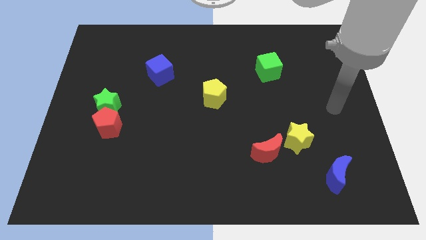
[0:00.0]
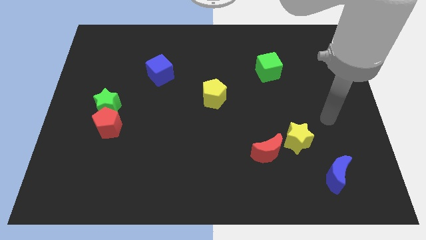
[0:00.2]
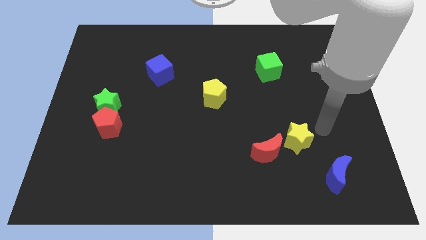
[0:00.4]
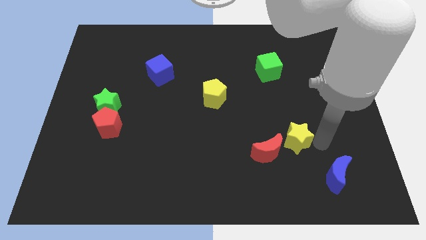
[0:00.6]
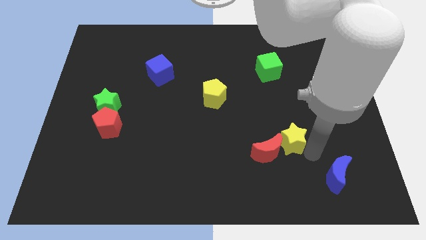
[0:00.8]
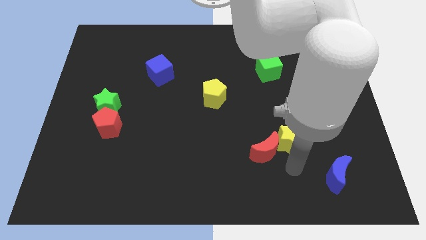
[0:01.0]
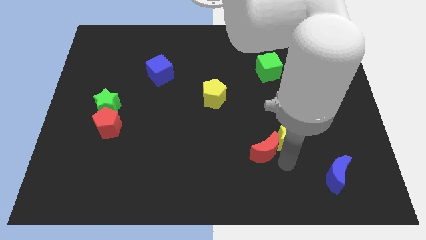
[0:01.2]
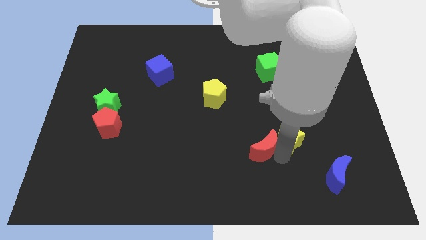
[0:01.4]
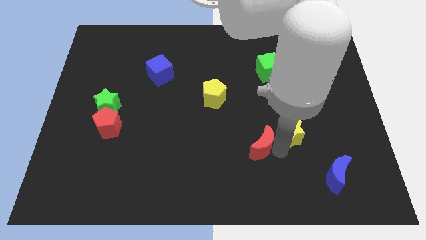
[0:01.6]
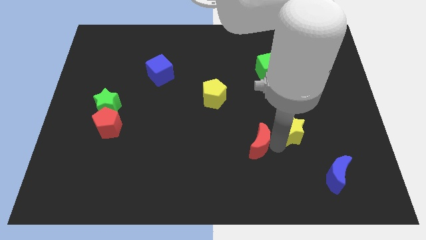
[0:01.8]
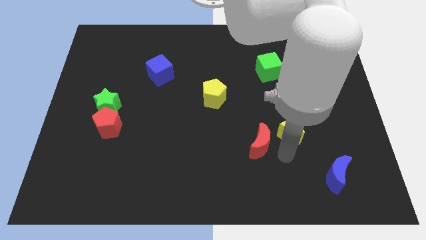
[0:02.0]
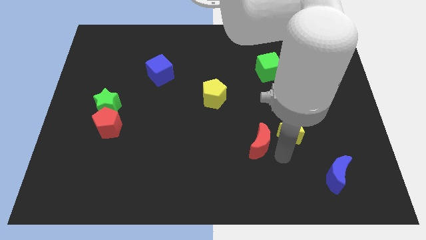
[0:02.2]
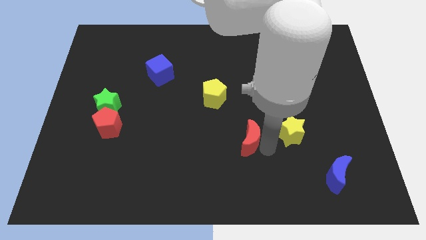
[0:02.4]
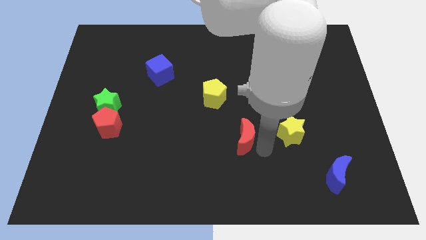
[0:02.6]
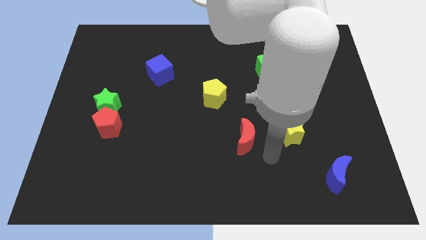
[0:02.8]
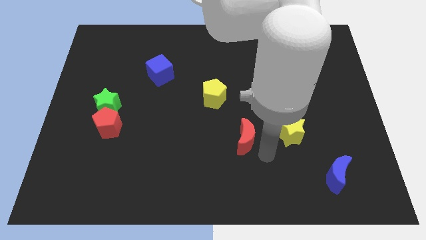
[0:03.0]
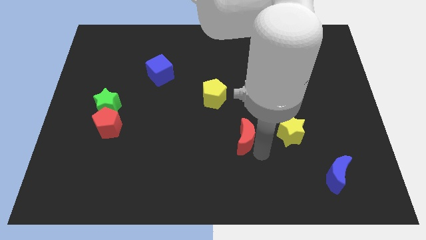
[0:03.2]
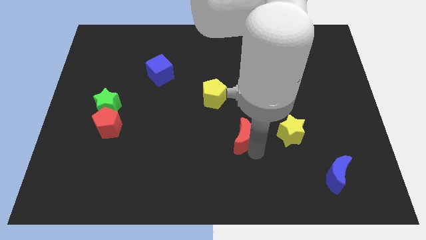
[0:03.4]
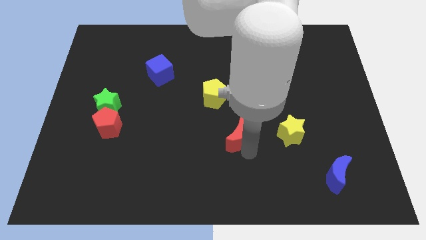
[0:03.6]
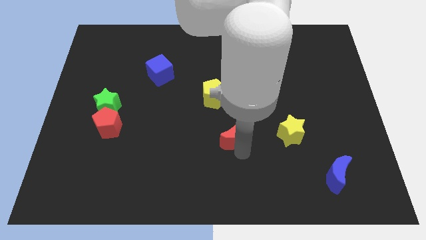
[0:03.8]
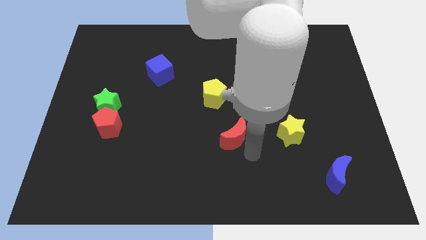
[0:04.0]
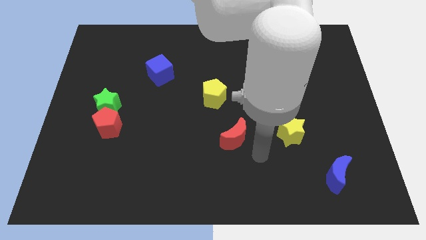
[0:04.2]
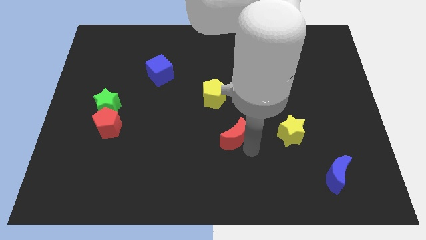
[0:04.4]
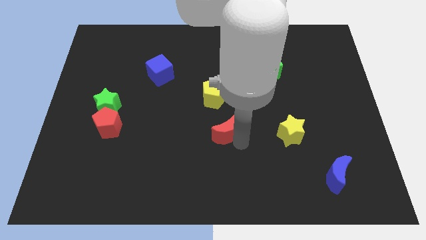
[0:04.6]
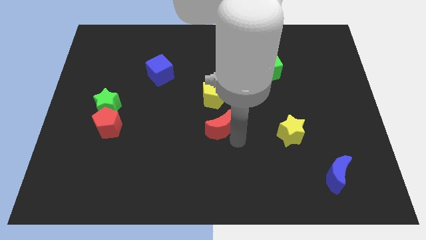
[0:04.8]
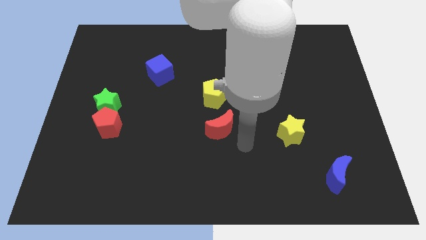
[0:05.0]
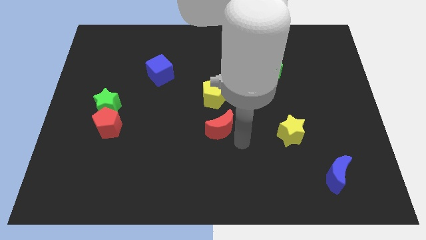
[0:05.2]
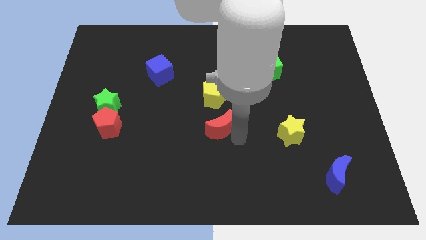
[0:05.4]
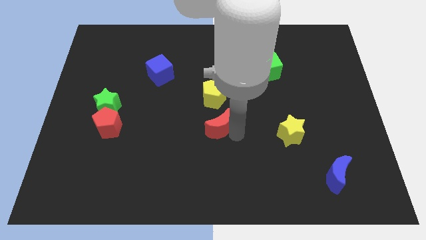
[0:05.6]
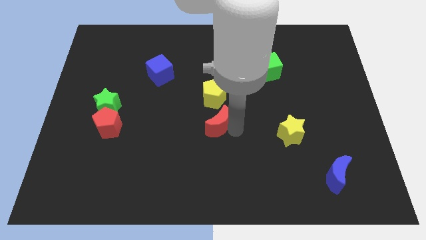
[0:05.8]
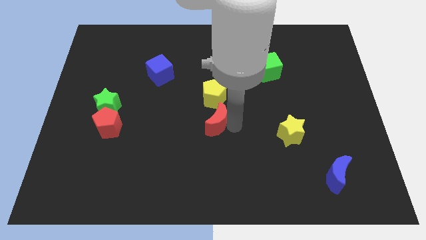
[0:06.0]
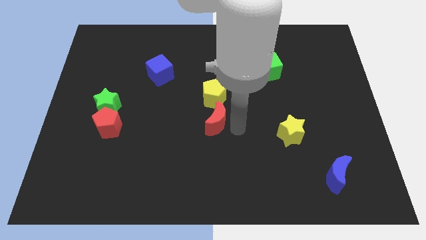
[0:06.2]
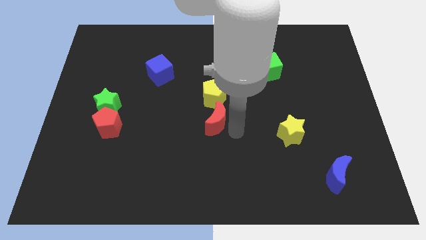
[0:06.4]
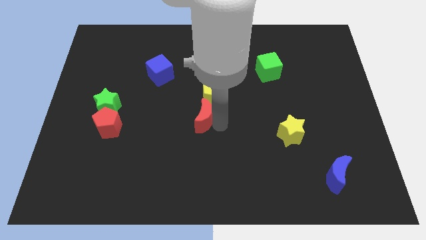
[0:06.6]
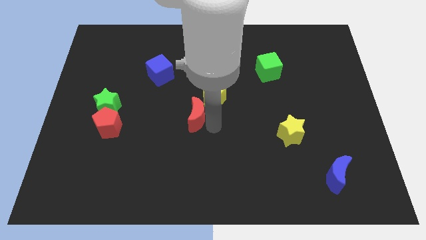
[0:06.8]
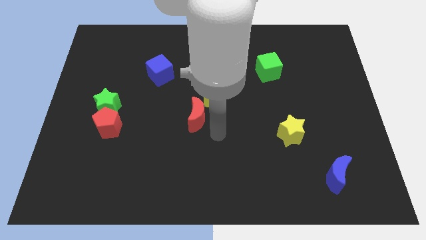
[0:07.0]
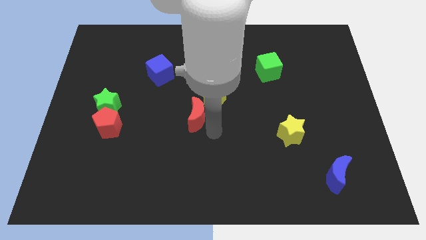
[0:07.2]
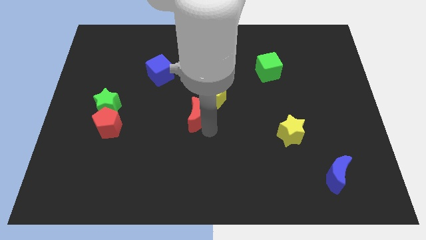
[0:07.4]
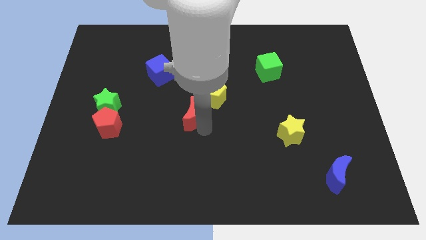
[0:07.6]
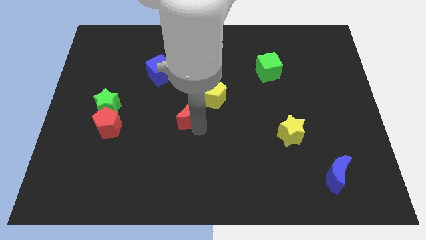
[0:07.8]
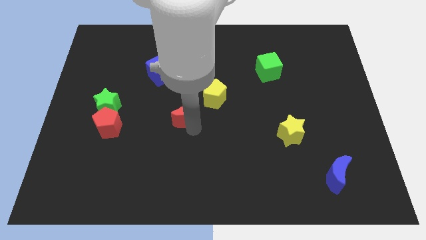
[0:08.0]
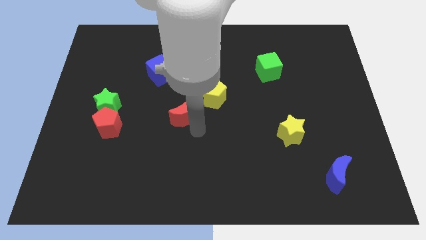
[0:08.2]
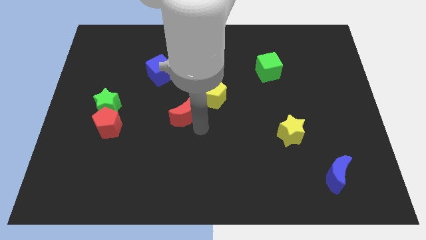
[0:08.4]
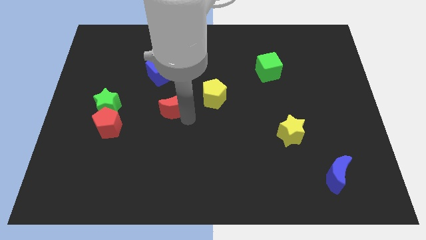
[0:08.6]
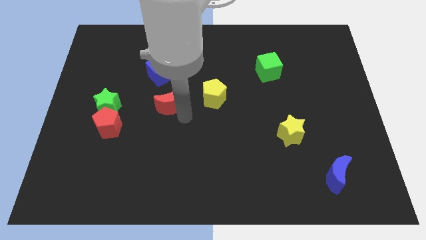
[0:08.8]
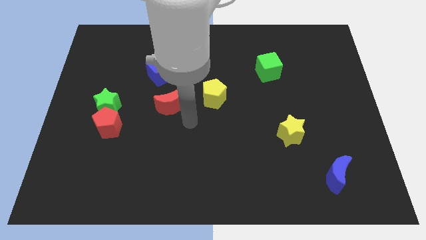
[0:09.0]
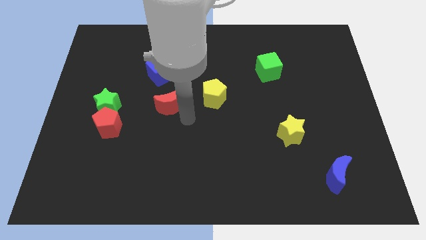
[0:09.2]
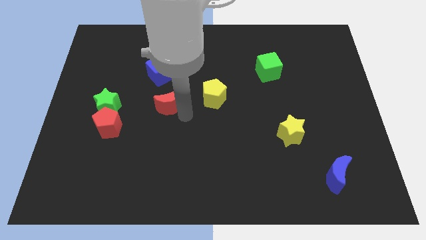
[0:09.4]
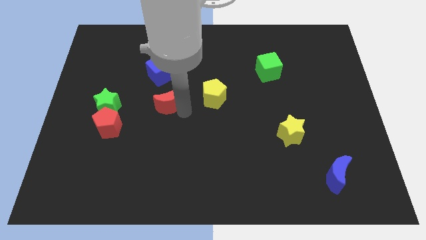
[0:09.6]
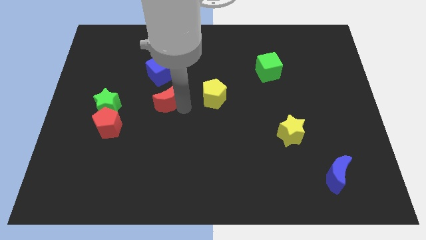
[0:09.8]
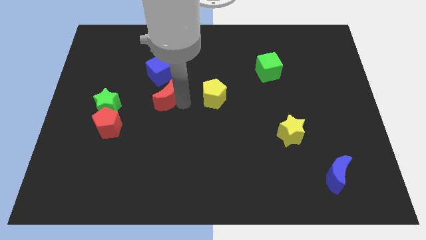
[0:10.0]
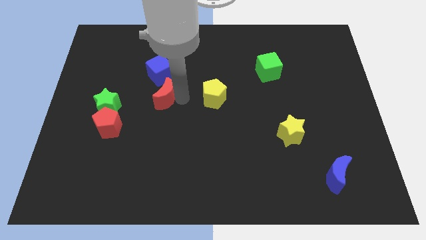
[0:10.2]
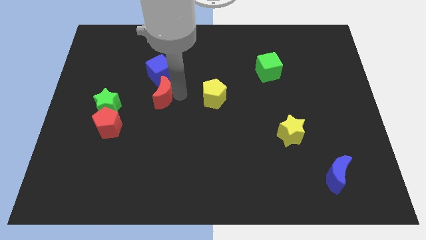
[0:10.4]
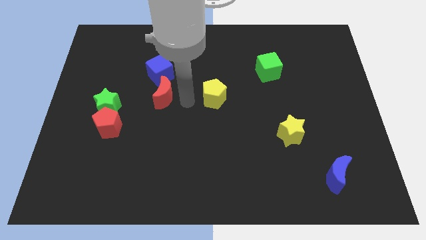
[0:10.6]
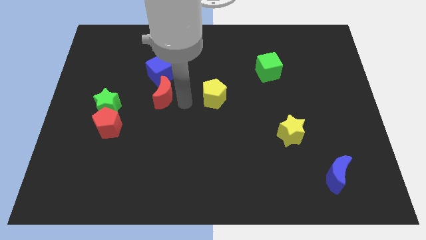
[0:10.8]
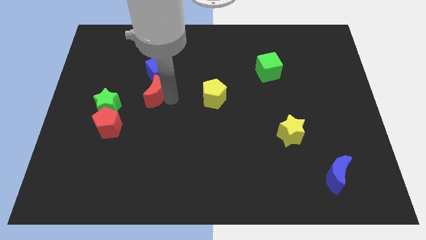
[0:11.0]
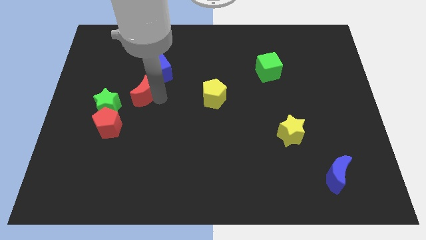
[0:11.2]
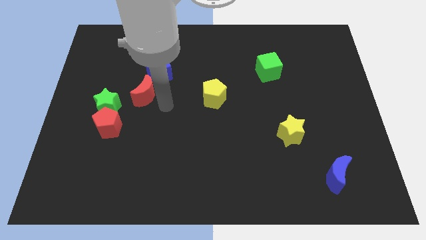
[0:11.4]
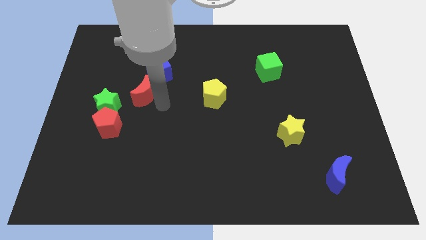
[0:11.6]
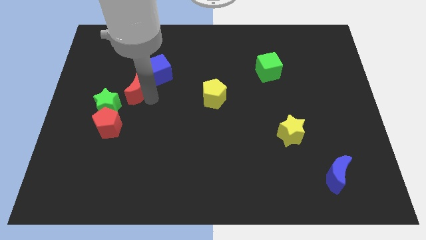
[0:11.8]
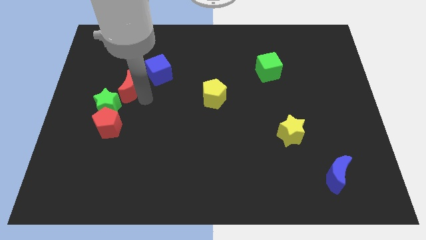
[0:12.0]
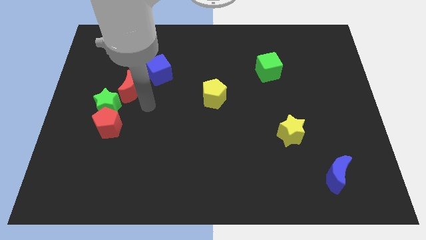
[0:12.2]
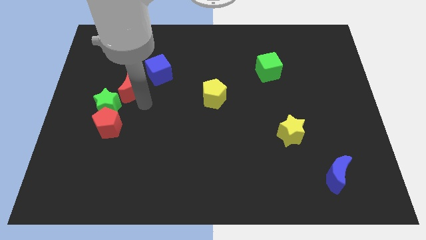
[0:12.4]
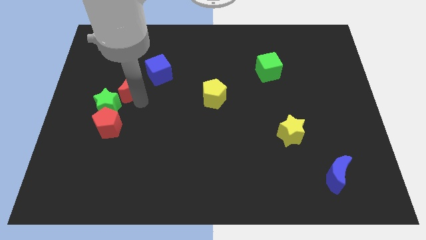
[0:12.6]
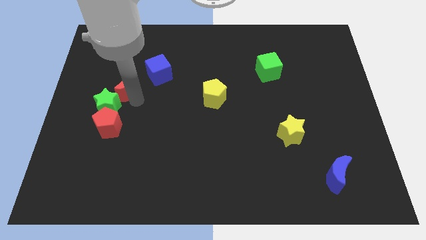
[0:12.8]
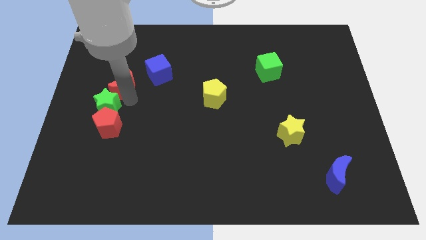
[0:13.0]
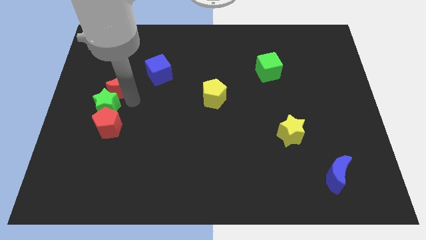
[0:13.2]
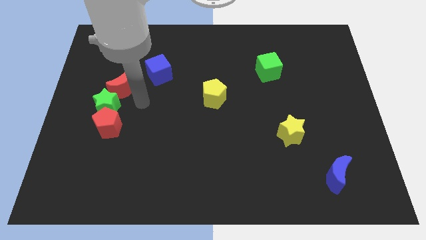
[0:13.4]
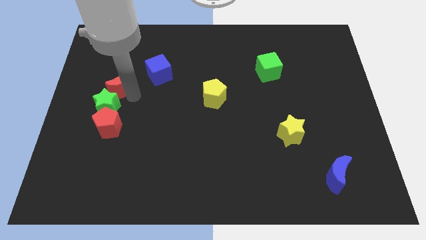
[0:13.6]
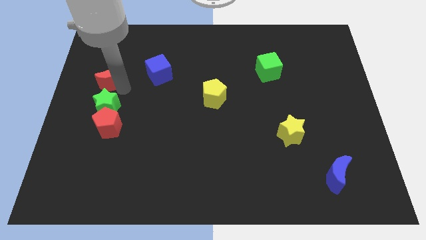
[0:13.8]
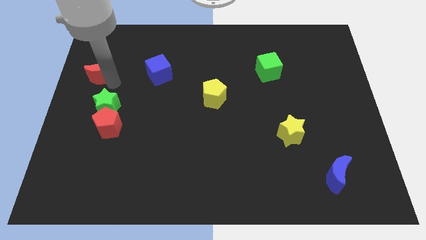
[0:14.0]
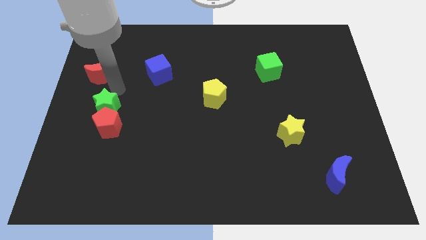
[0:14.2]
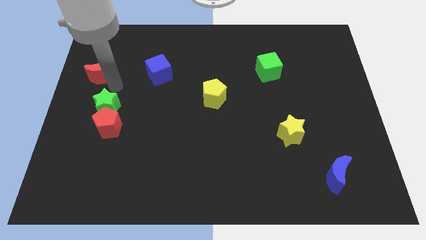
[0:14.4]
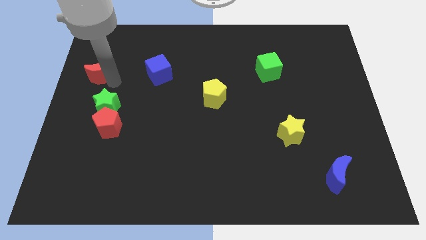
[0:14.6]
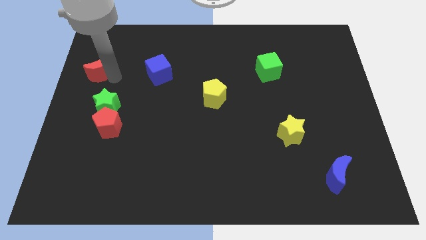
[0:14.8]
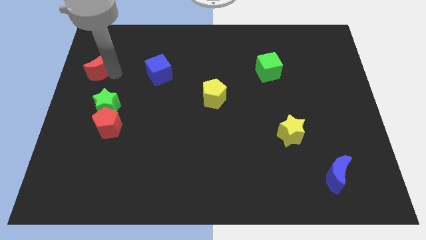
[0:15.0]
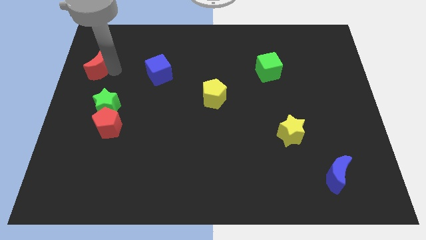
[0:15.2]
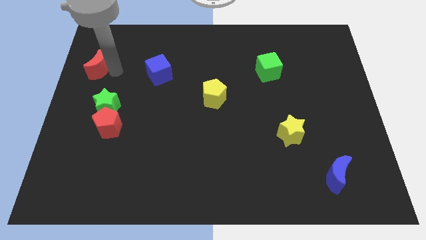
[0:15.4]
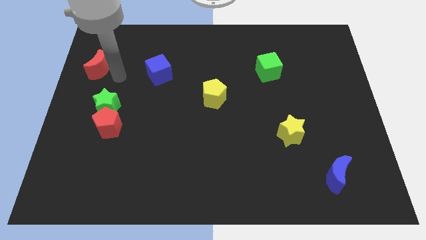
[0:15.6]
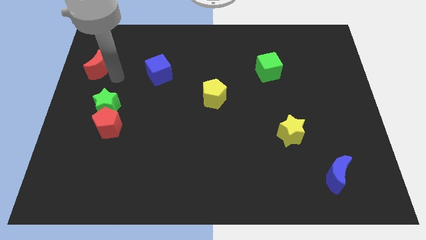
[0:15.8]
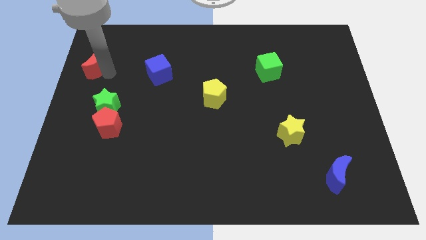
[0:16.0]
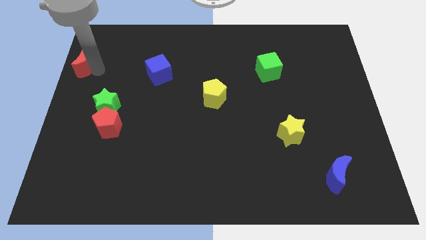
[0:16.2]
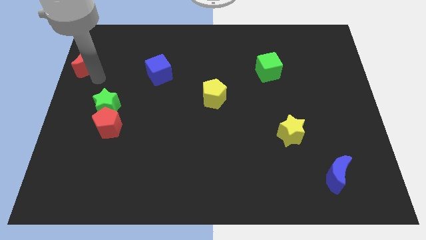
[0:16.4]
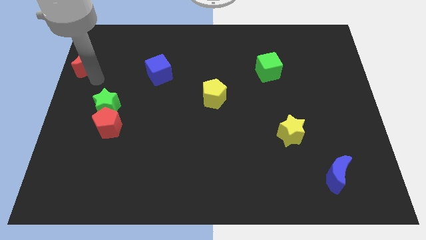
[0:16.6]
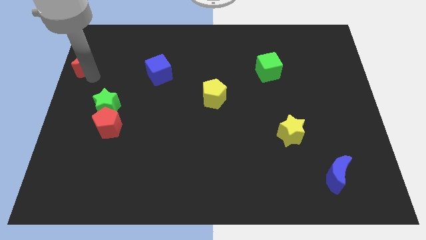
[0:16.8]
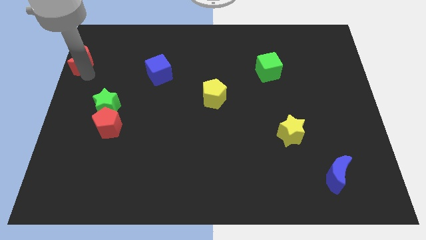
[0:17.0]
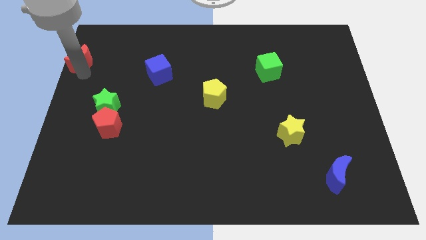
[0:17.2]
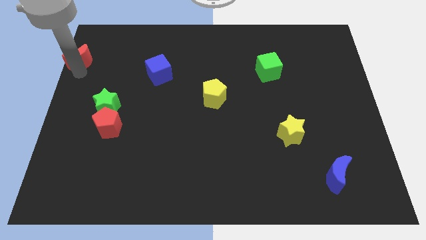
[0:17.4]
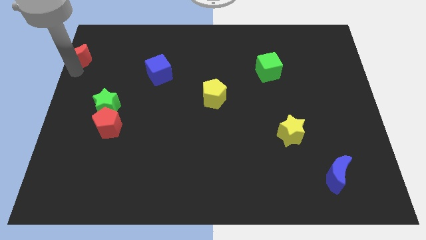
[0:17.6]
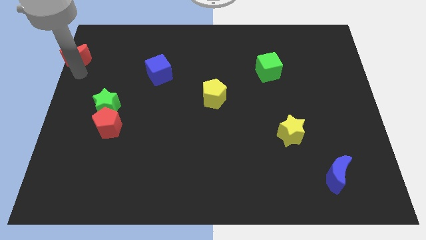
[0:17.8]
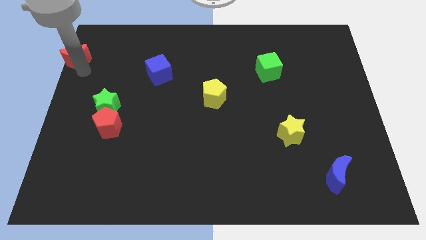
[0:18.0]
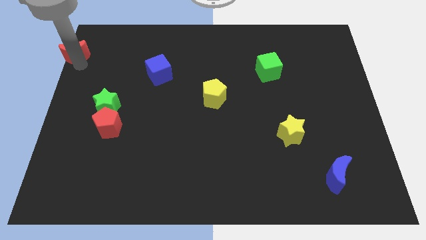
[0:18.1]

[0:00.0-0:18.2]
push the red moon to the top left
